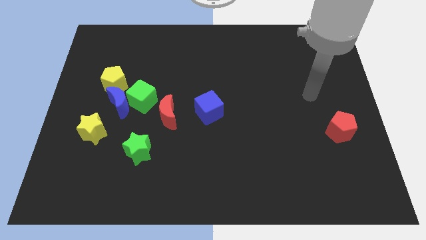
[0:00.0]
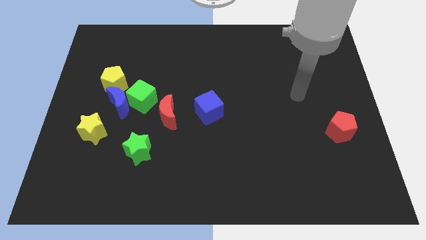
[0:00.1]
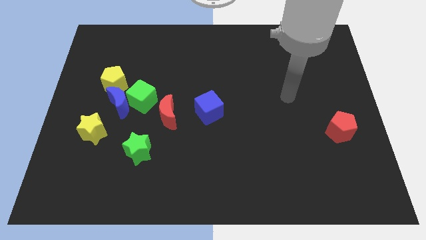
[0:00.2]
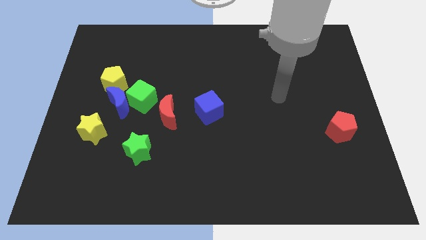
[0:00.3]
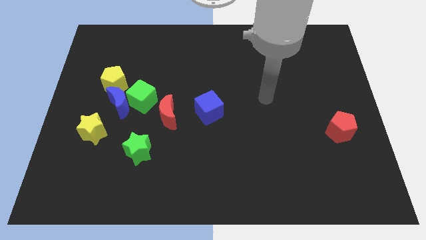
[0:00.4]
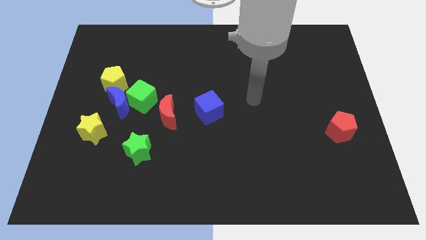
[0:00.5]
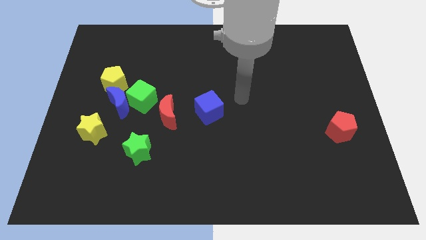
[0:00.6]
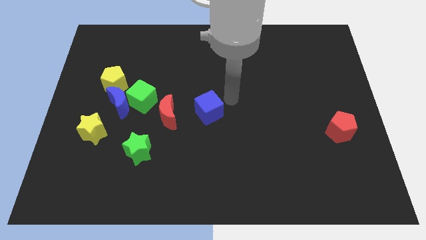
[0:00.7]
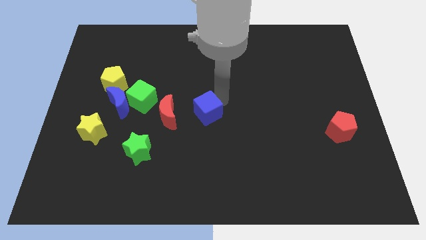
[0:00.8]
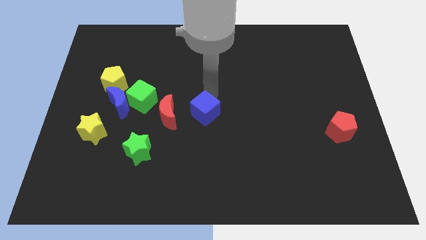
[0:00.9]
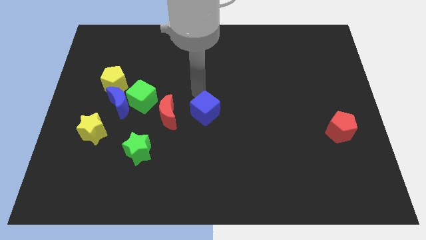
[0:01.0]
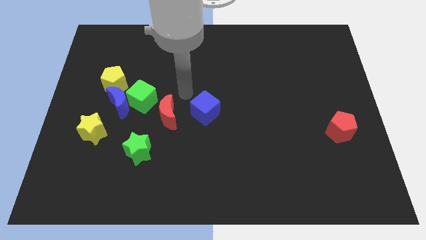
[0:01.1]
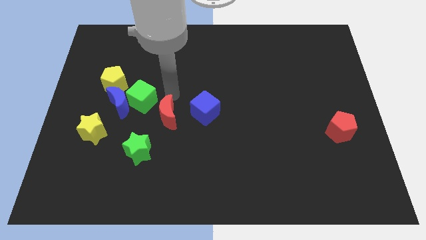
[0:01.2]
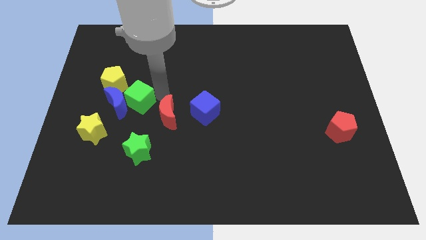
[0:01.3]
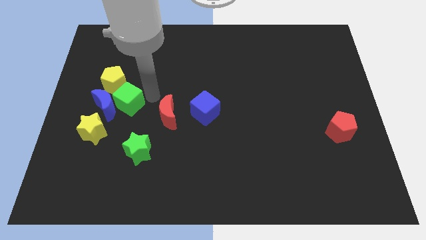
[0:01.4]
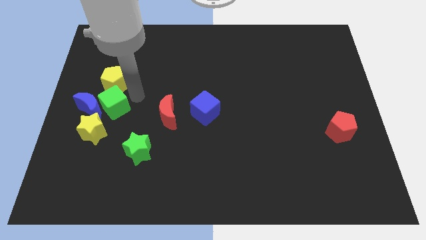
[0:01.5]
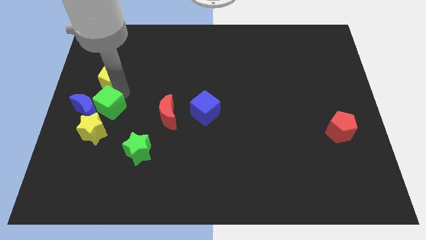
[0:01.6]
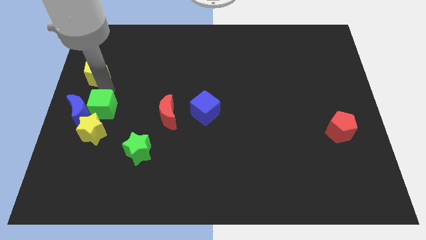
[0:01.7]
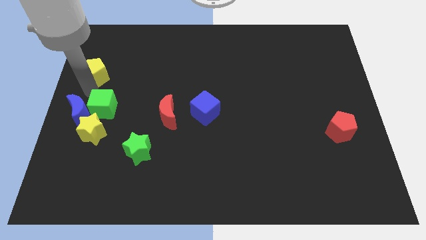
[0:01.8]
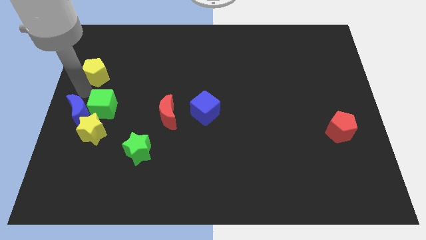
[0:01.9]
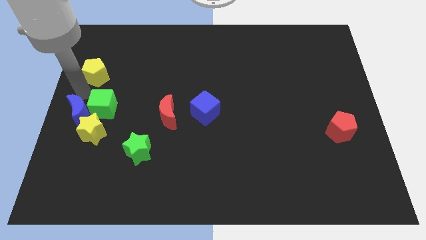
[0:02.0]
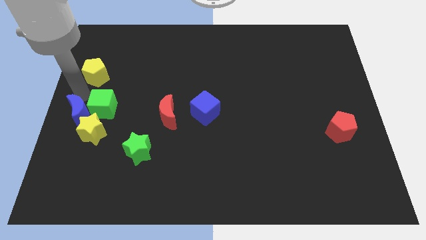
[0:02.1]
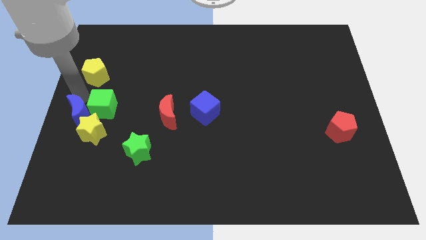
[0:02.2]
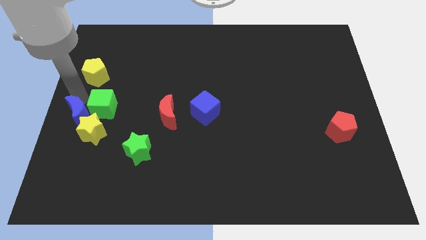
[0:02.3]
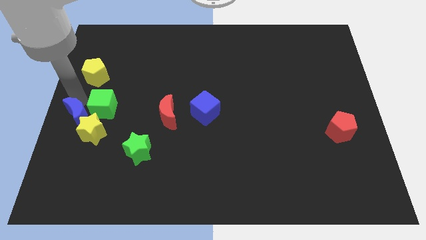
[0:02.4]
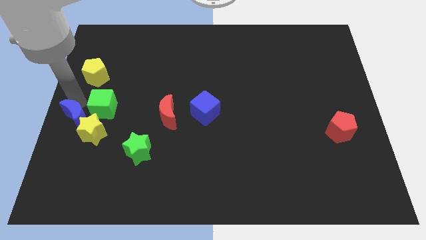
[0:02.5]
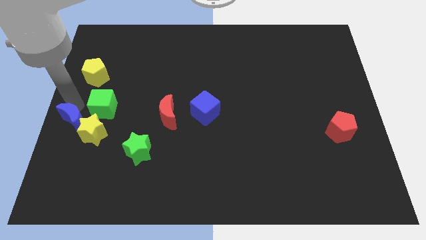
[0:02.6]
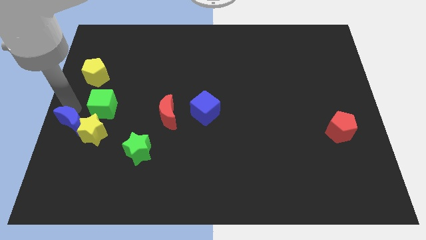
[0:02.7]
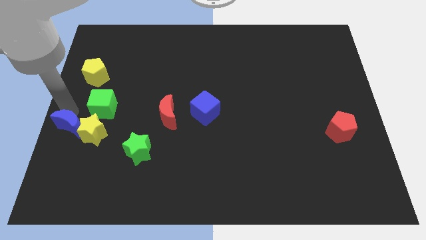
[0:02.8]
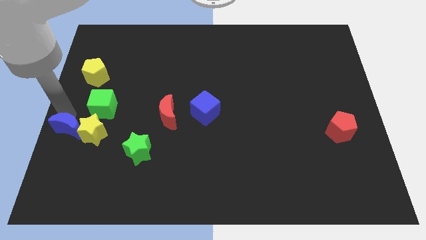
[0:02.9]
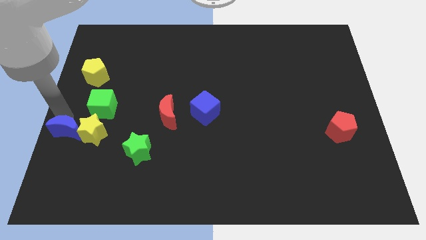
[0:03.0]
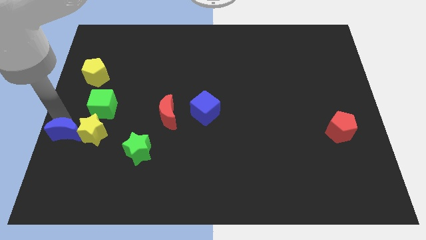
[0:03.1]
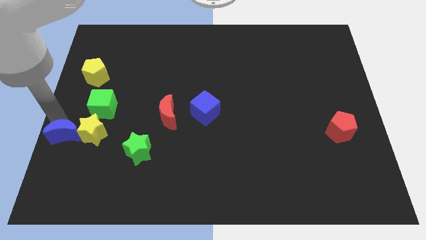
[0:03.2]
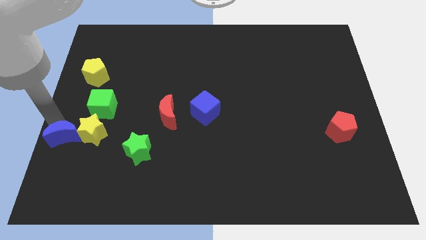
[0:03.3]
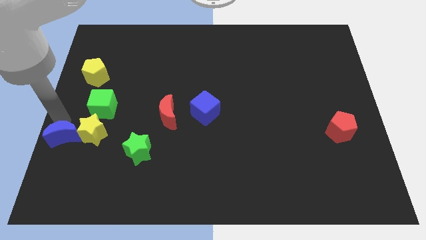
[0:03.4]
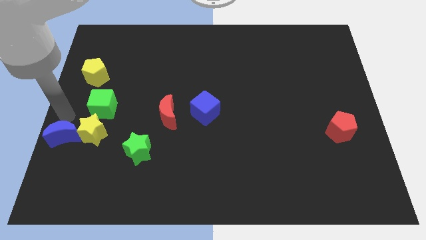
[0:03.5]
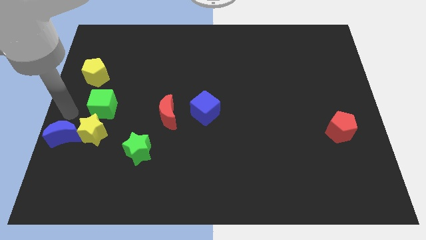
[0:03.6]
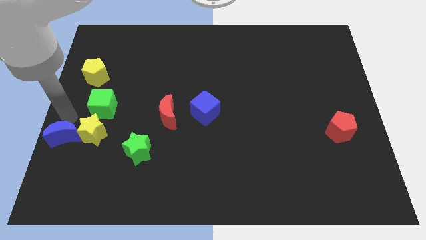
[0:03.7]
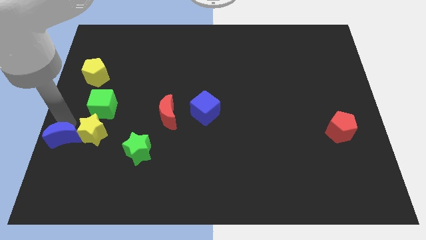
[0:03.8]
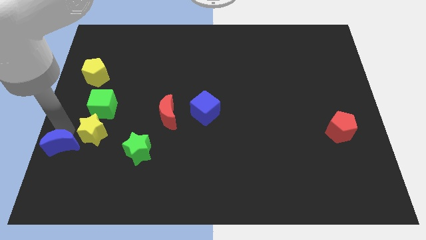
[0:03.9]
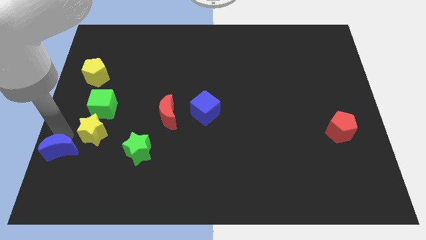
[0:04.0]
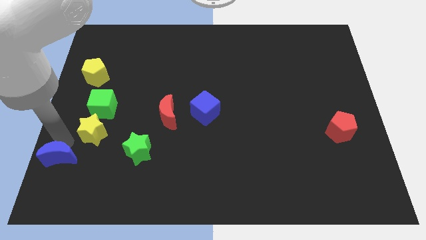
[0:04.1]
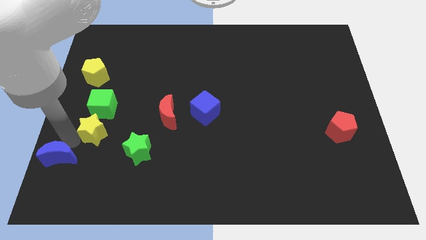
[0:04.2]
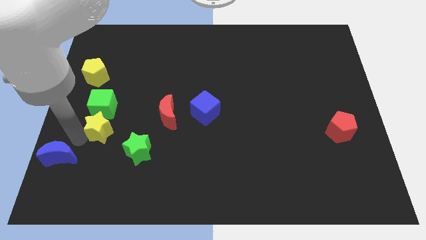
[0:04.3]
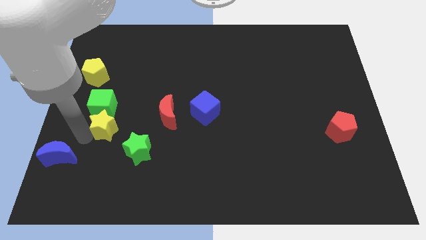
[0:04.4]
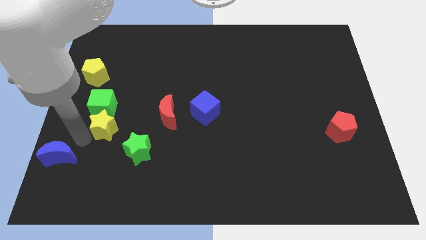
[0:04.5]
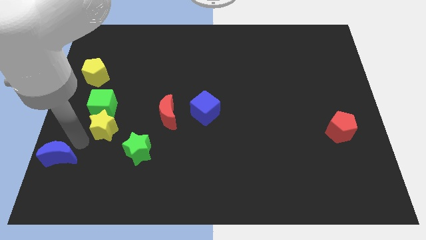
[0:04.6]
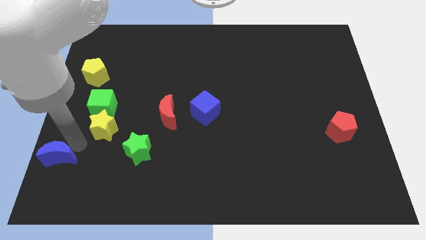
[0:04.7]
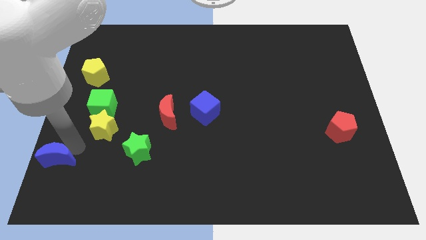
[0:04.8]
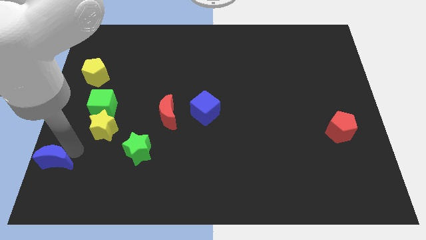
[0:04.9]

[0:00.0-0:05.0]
push the blue moon to the bottom left corner

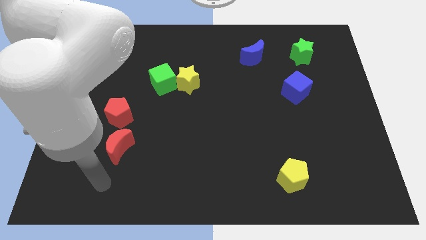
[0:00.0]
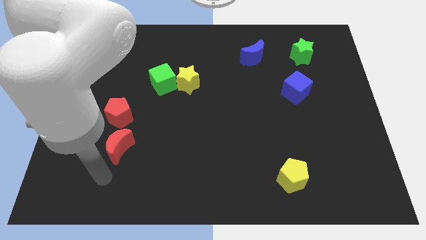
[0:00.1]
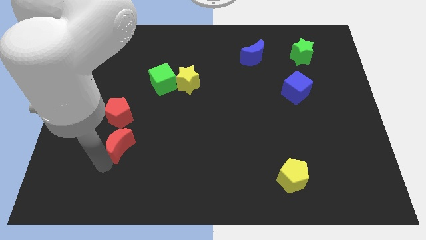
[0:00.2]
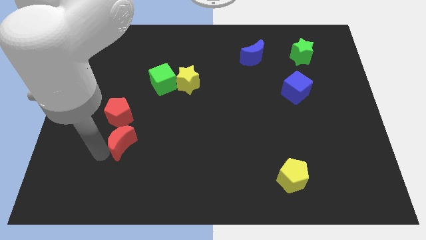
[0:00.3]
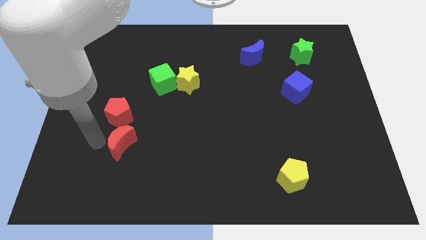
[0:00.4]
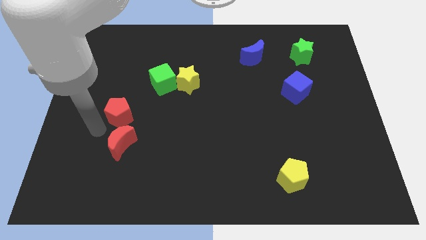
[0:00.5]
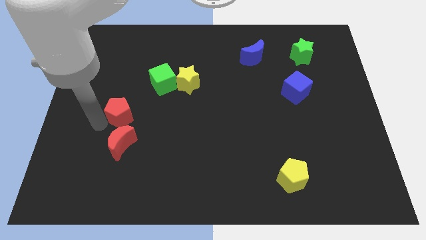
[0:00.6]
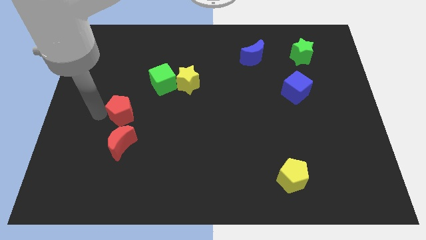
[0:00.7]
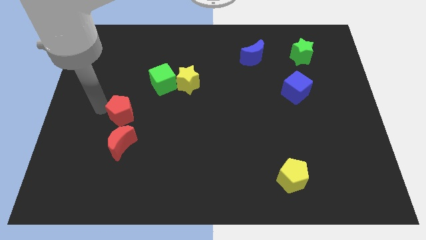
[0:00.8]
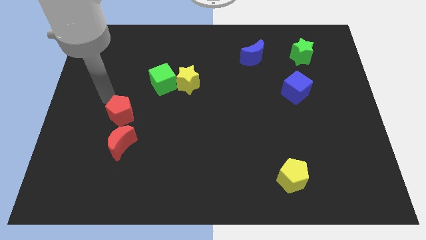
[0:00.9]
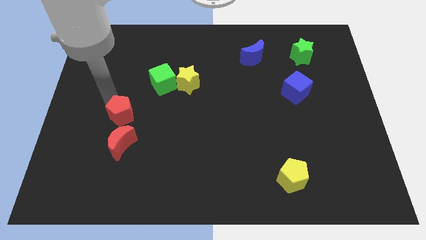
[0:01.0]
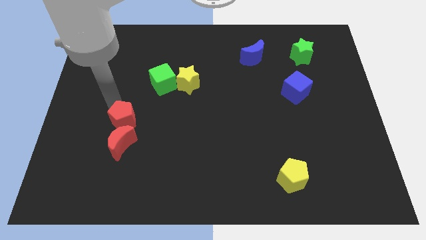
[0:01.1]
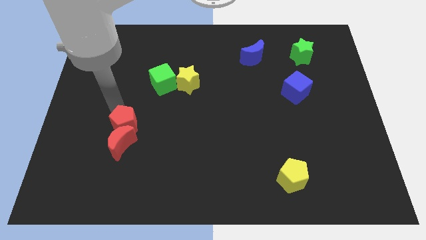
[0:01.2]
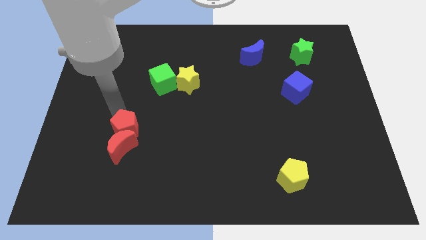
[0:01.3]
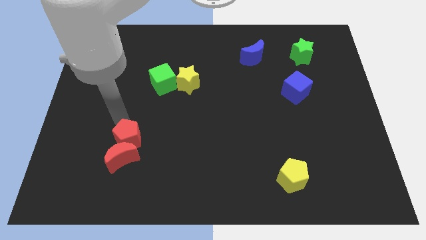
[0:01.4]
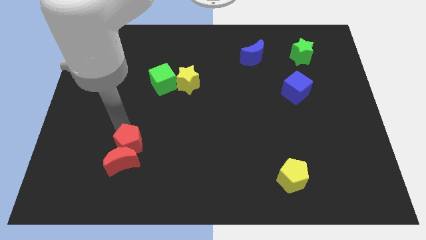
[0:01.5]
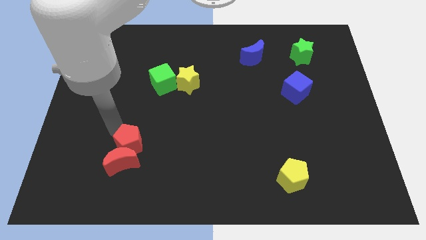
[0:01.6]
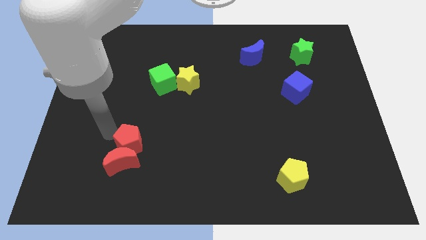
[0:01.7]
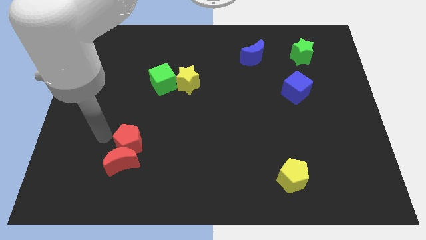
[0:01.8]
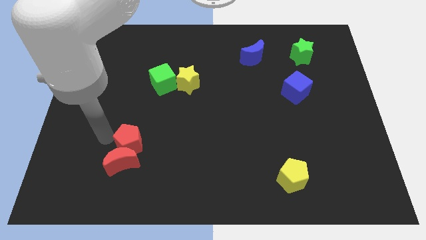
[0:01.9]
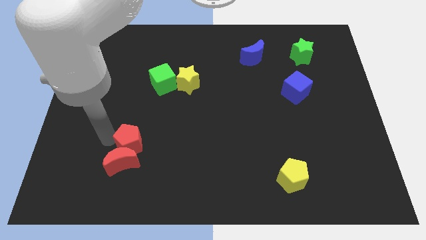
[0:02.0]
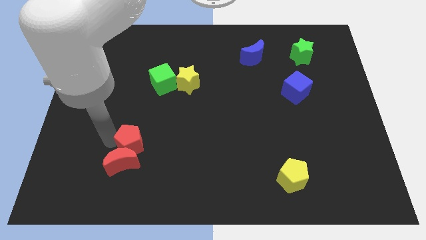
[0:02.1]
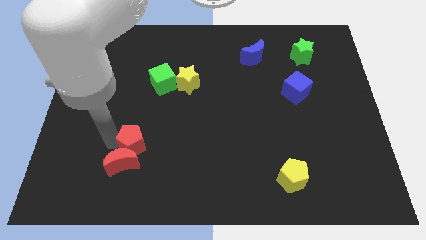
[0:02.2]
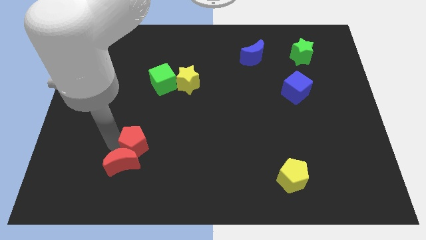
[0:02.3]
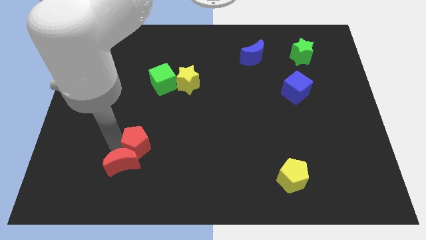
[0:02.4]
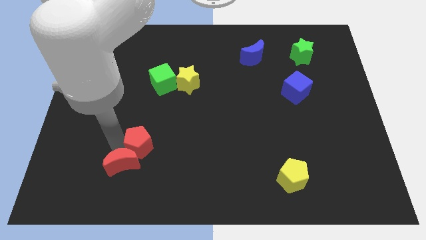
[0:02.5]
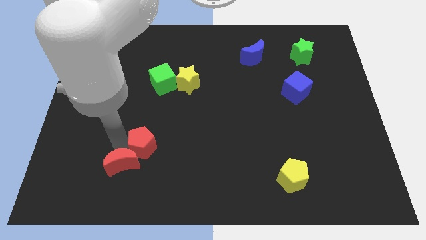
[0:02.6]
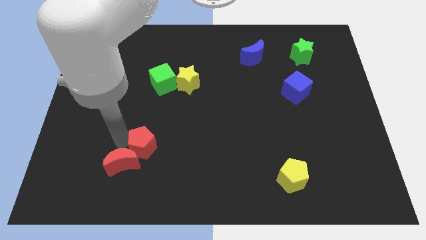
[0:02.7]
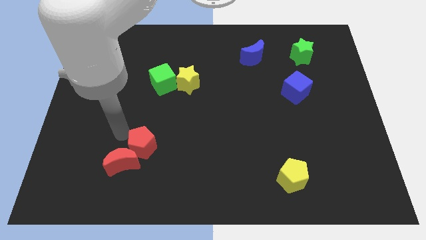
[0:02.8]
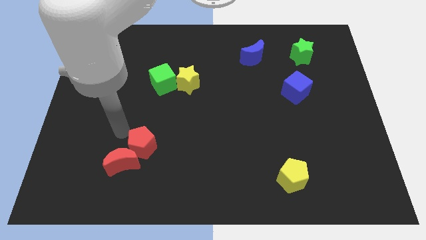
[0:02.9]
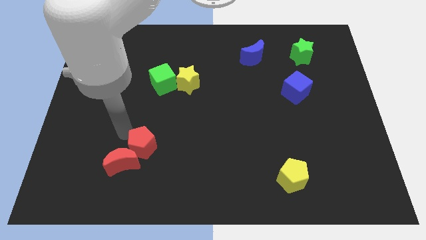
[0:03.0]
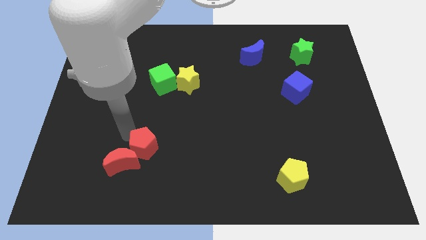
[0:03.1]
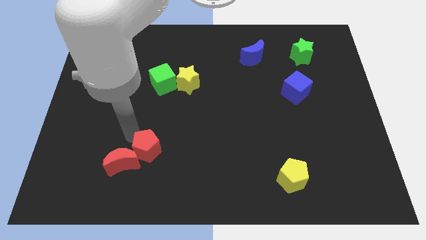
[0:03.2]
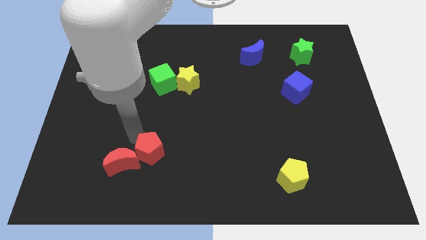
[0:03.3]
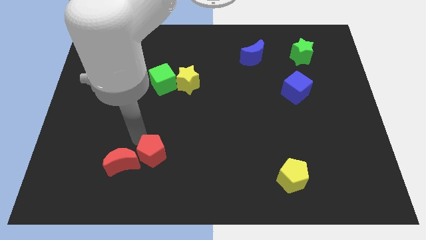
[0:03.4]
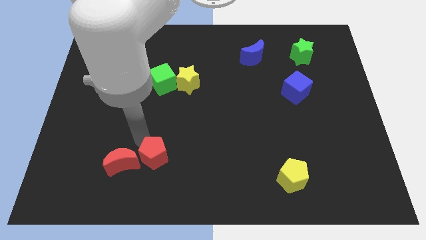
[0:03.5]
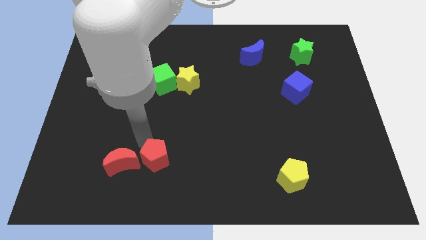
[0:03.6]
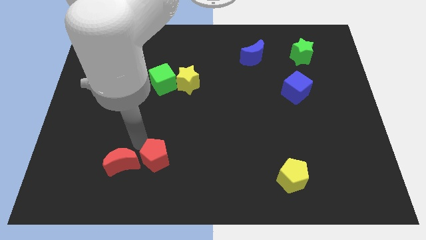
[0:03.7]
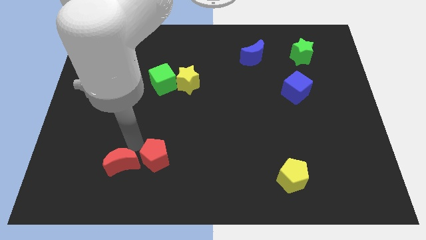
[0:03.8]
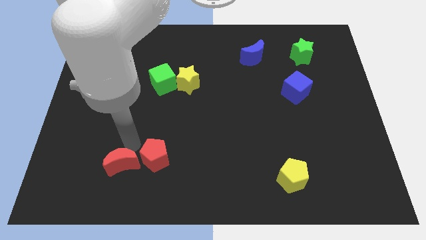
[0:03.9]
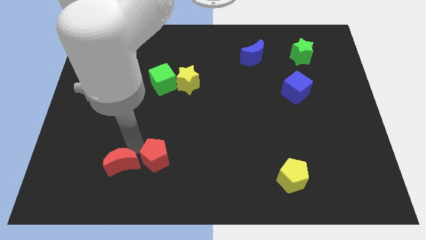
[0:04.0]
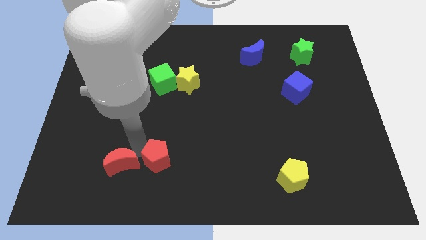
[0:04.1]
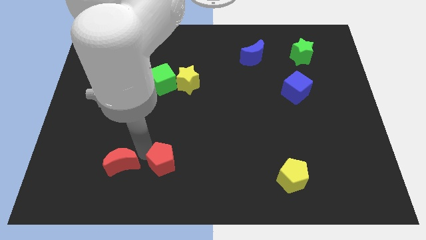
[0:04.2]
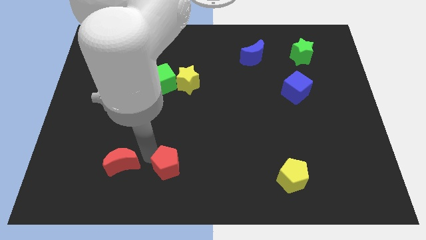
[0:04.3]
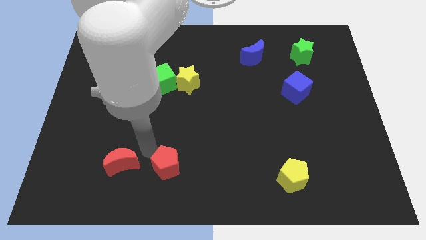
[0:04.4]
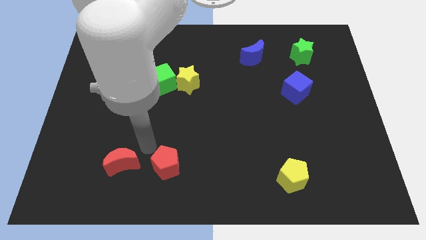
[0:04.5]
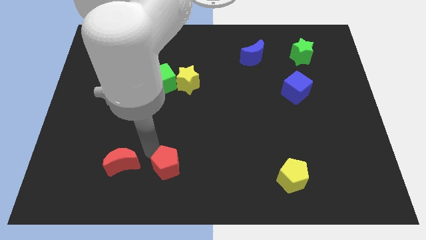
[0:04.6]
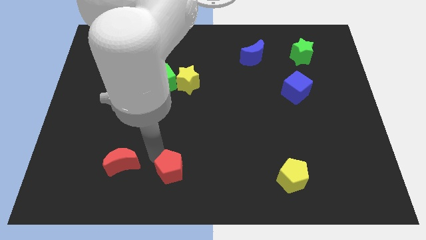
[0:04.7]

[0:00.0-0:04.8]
push the red pentagon to the bottom
